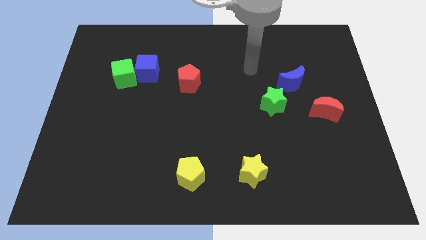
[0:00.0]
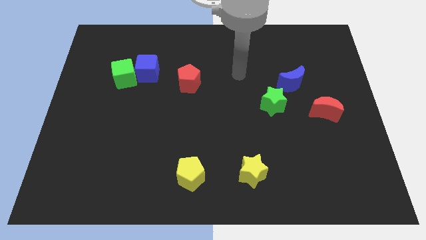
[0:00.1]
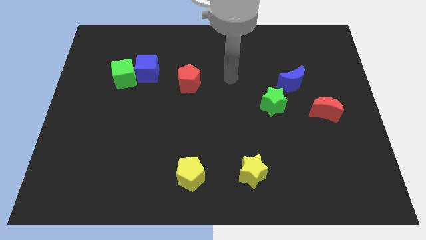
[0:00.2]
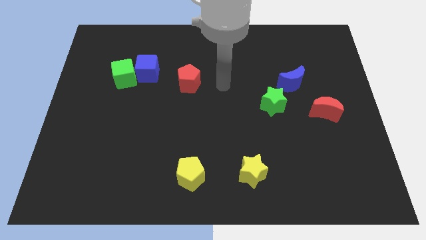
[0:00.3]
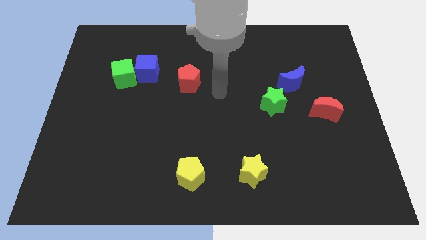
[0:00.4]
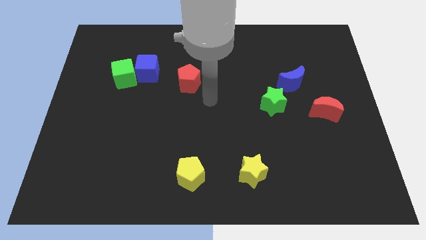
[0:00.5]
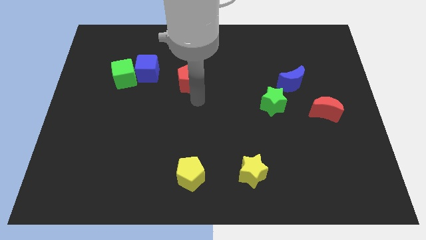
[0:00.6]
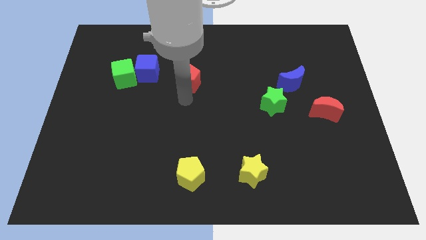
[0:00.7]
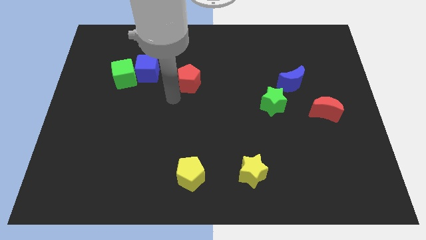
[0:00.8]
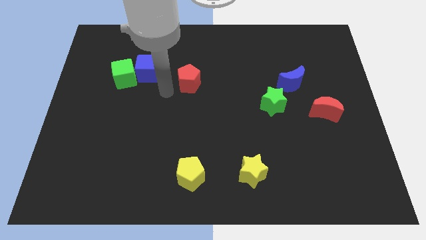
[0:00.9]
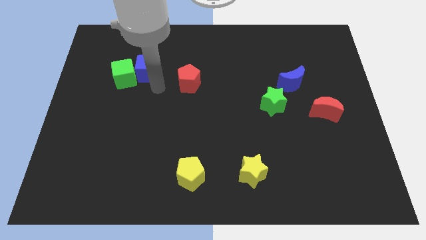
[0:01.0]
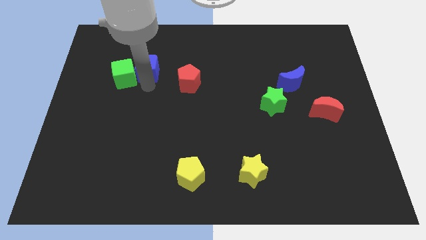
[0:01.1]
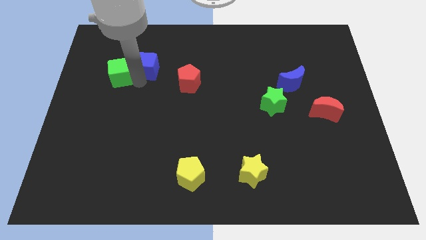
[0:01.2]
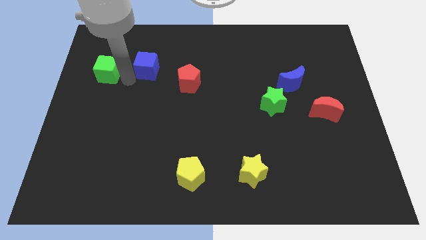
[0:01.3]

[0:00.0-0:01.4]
separate the blue cube from the green cube

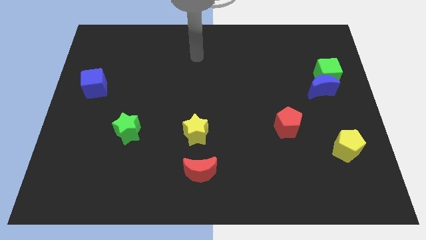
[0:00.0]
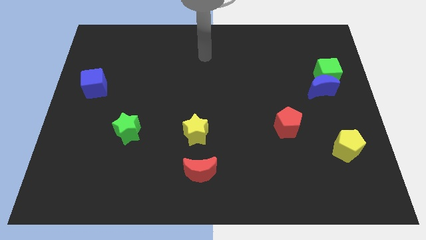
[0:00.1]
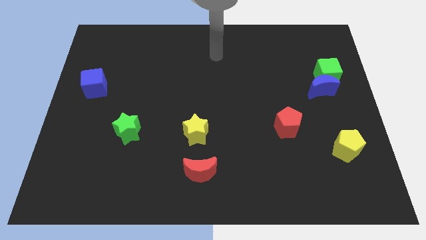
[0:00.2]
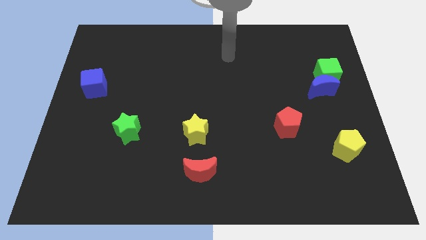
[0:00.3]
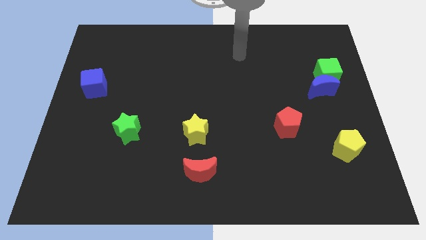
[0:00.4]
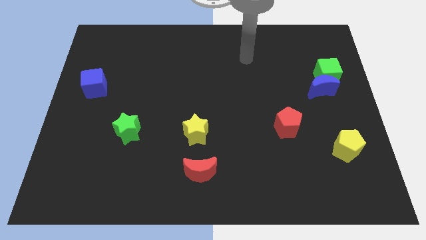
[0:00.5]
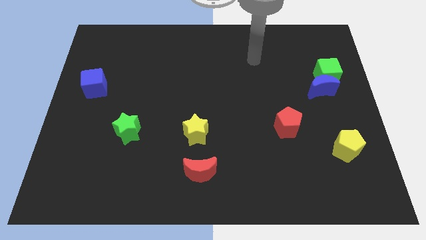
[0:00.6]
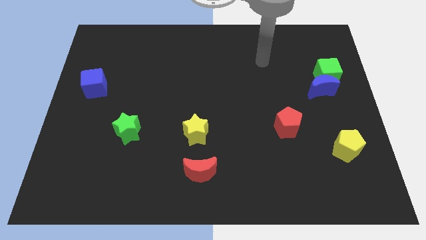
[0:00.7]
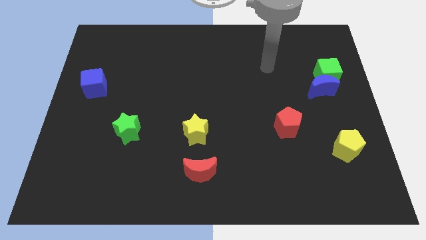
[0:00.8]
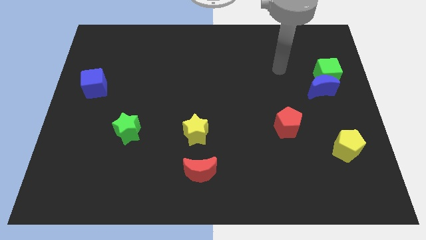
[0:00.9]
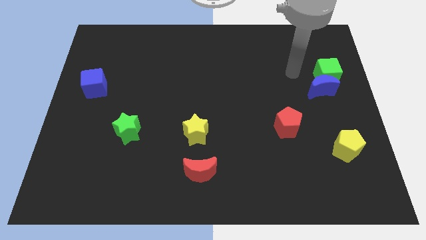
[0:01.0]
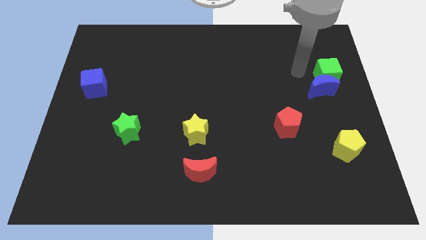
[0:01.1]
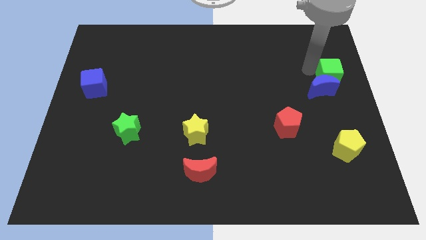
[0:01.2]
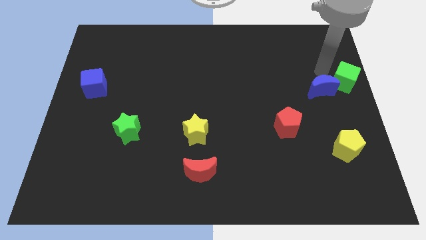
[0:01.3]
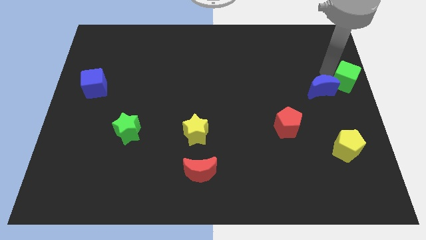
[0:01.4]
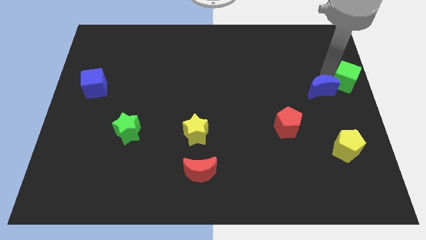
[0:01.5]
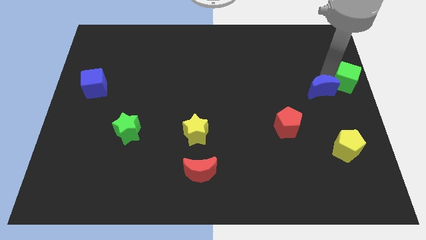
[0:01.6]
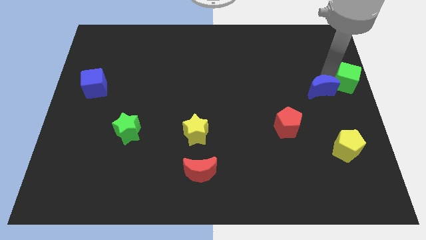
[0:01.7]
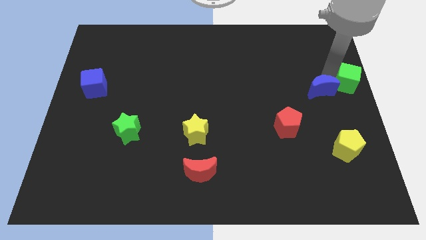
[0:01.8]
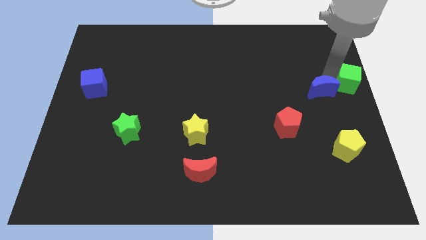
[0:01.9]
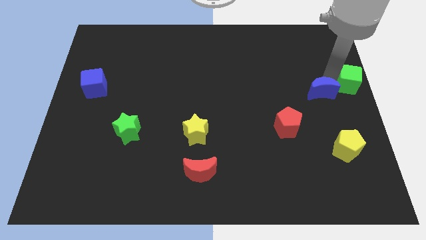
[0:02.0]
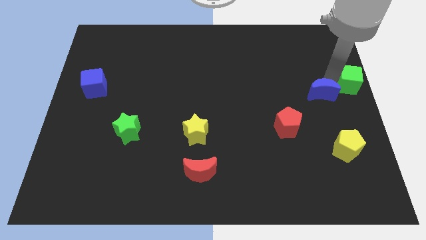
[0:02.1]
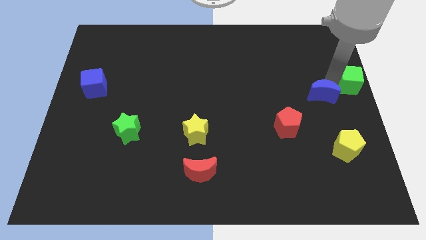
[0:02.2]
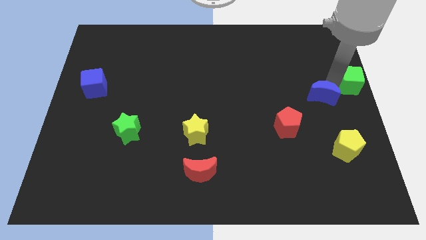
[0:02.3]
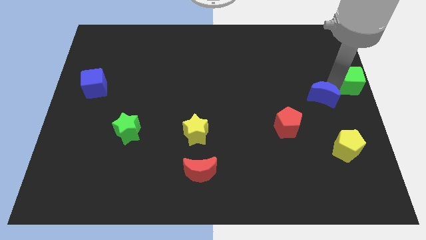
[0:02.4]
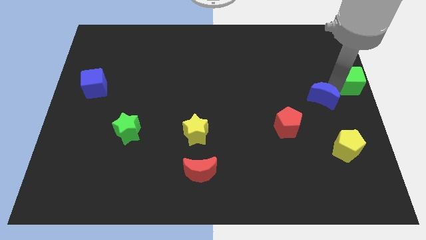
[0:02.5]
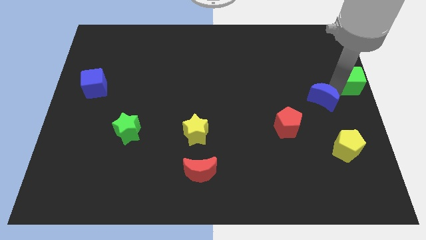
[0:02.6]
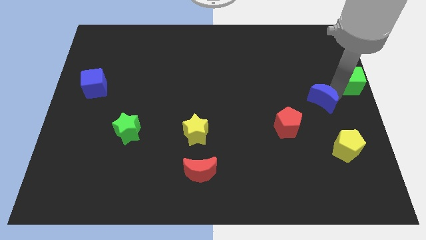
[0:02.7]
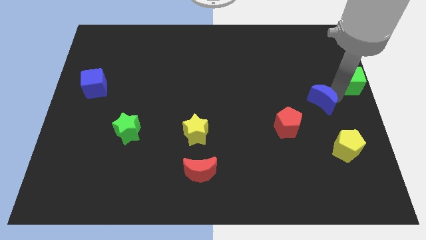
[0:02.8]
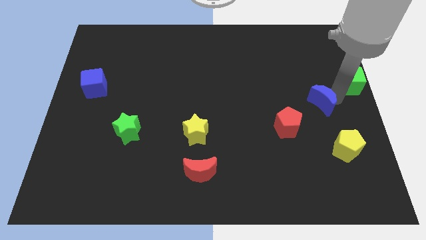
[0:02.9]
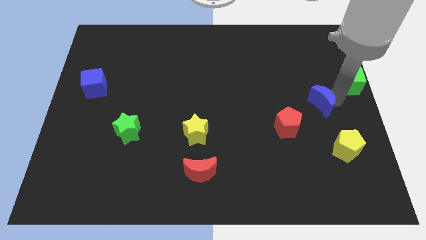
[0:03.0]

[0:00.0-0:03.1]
move the blue moon away from the green cube

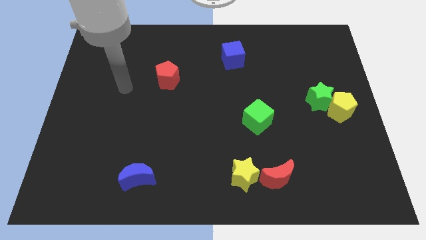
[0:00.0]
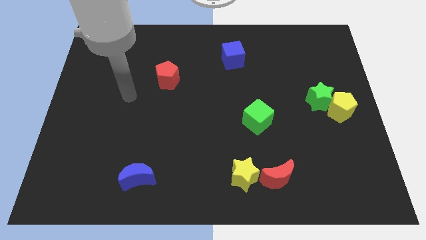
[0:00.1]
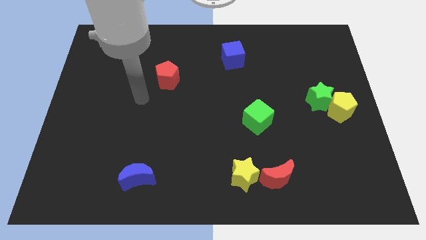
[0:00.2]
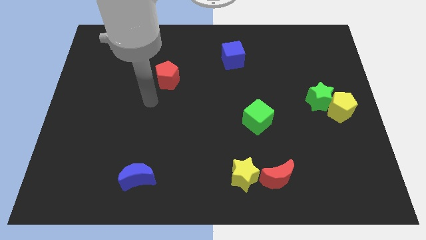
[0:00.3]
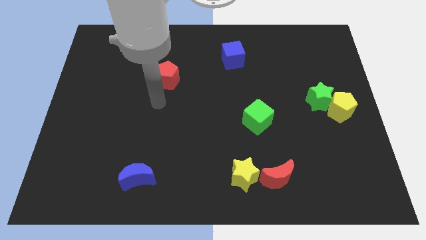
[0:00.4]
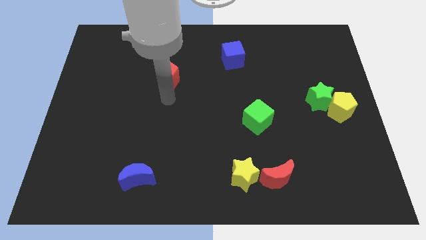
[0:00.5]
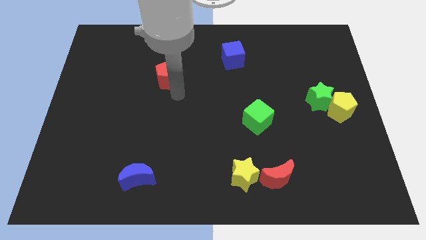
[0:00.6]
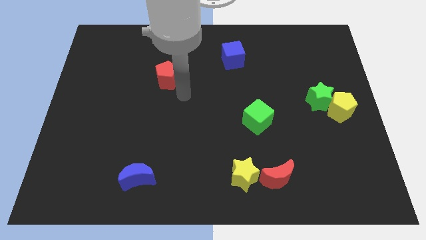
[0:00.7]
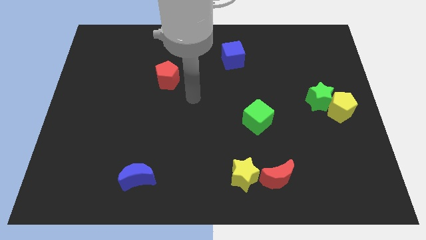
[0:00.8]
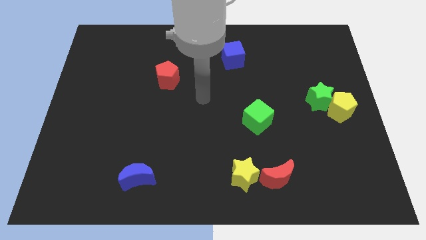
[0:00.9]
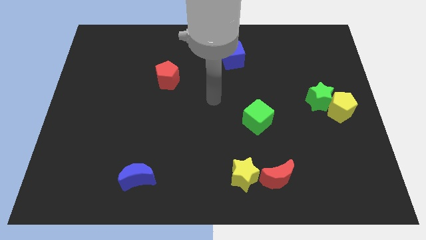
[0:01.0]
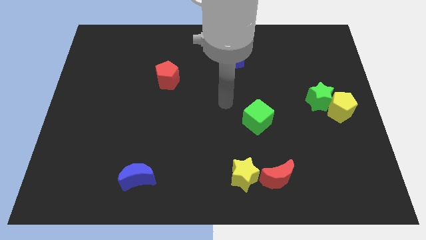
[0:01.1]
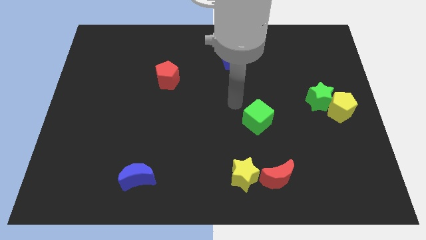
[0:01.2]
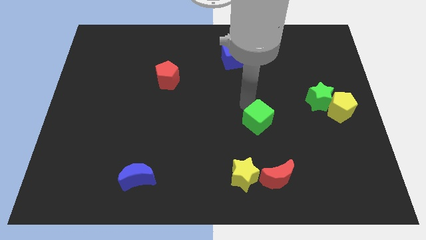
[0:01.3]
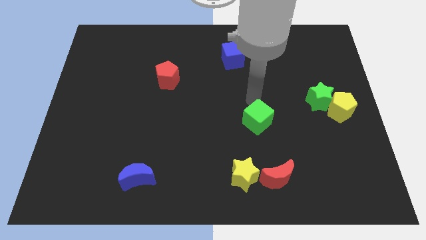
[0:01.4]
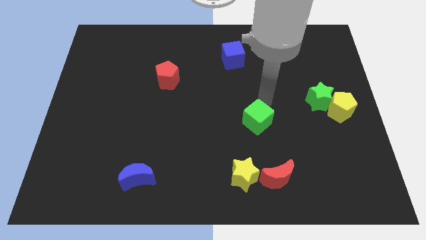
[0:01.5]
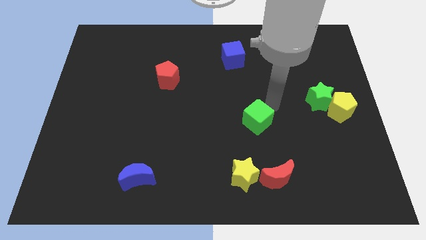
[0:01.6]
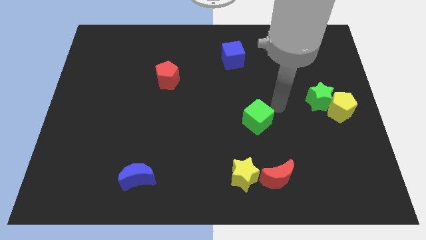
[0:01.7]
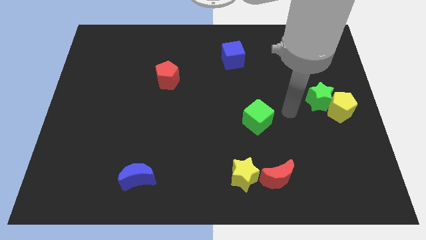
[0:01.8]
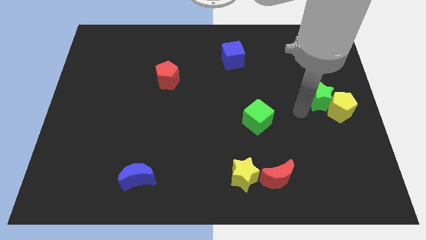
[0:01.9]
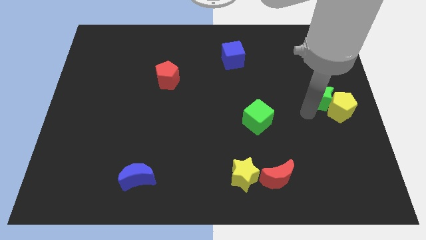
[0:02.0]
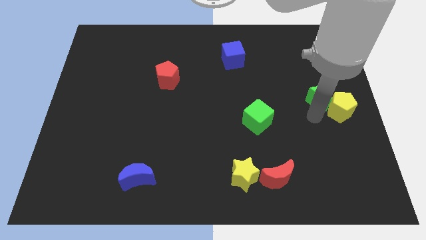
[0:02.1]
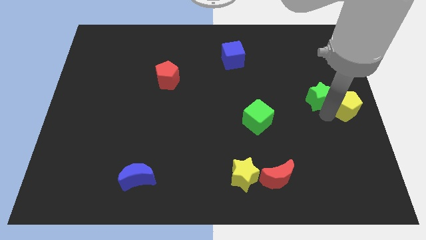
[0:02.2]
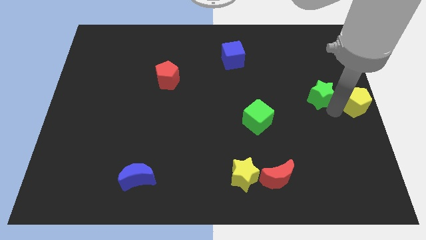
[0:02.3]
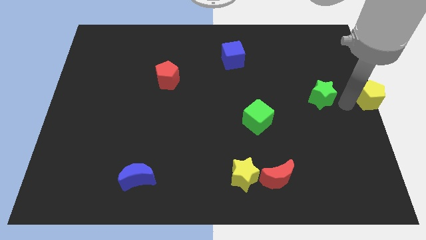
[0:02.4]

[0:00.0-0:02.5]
move the green star away from the yellow pentagon

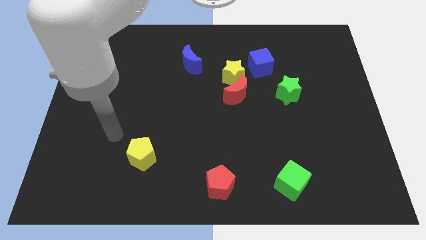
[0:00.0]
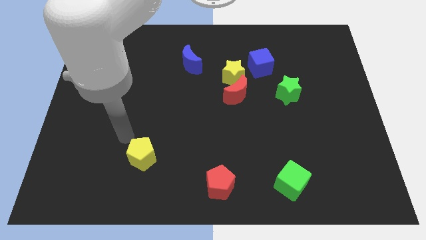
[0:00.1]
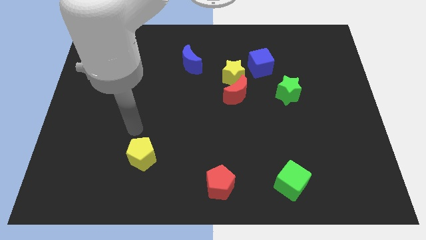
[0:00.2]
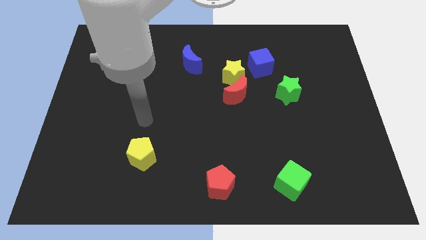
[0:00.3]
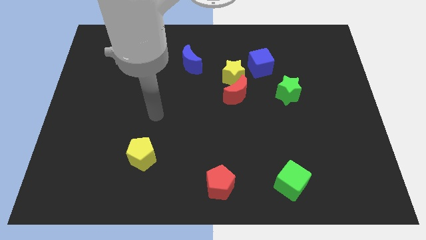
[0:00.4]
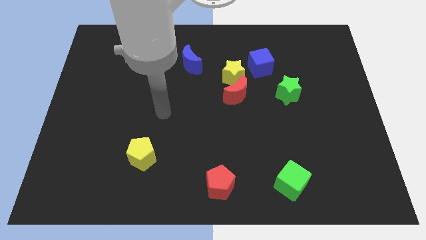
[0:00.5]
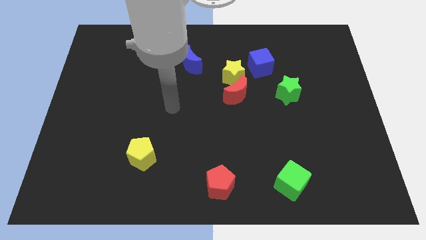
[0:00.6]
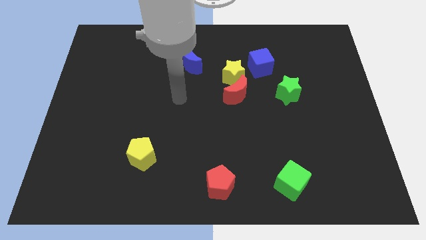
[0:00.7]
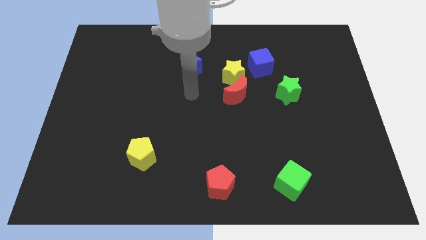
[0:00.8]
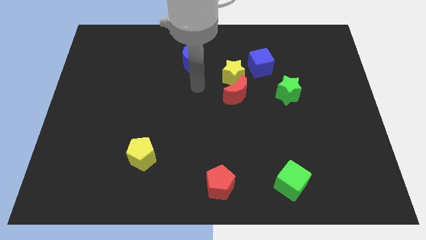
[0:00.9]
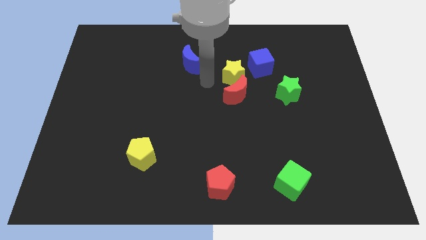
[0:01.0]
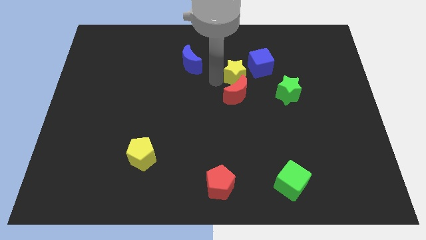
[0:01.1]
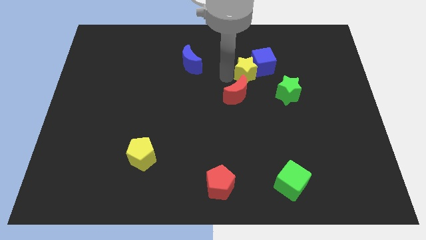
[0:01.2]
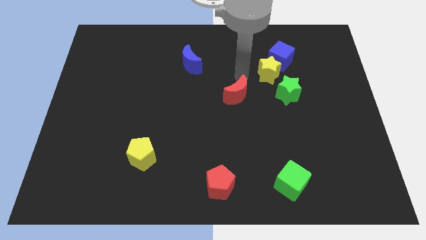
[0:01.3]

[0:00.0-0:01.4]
separate the red moon from the yellow star

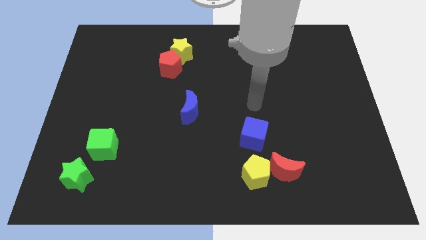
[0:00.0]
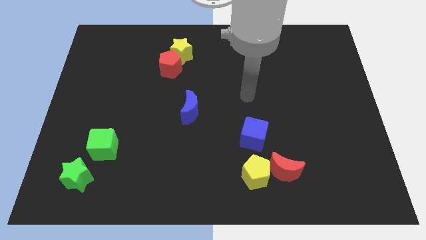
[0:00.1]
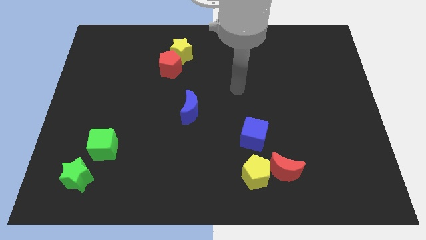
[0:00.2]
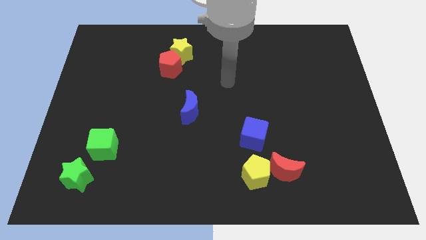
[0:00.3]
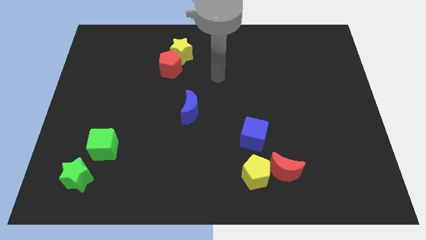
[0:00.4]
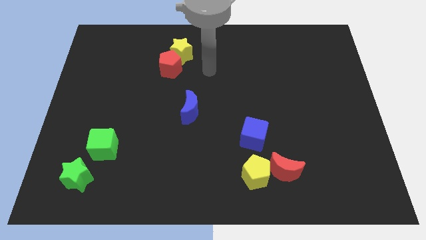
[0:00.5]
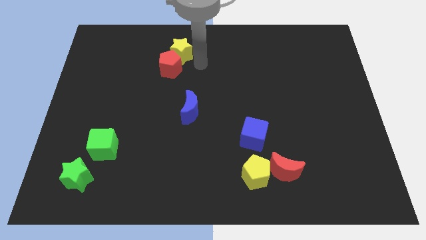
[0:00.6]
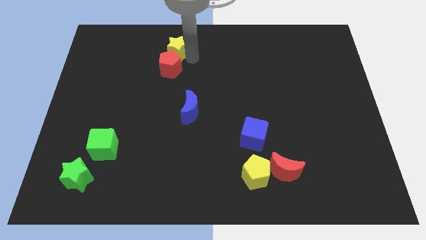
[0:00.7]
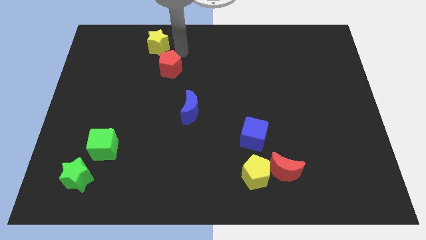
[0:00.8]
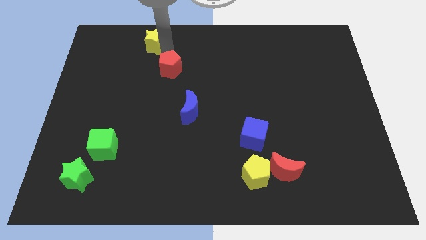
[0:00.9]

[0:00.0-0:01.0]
separate the red pentagon from the yellow star

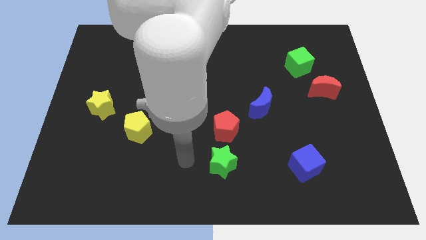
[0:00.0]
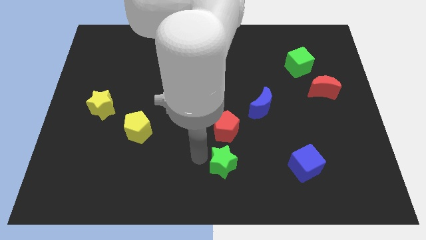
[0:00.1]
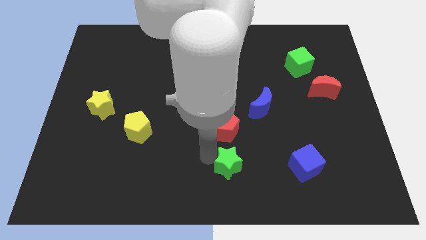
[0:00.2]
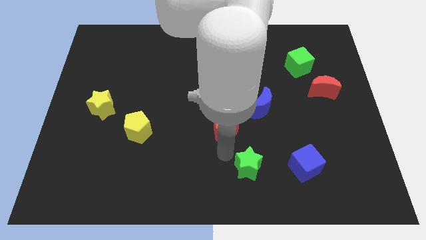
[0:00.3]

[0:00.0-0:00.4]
move the red pentagon away from the green star
